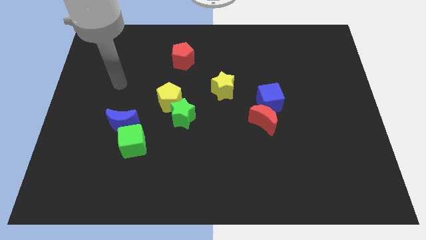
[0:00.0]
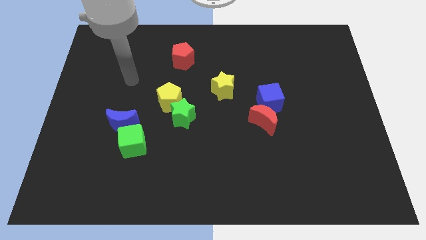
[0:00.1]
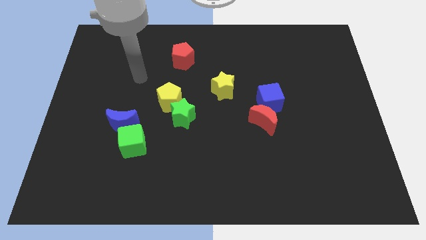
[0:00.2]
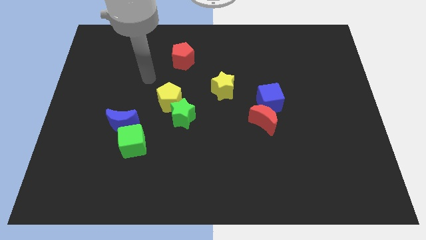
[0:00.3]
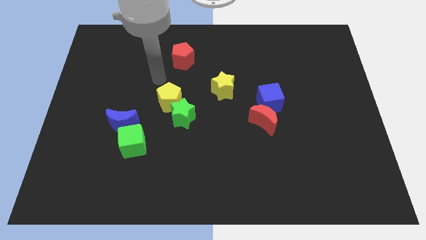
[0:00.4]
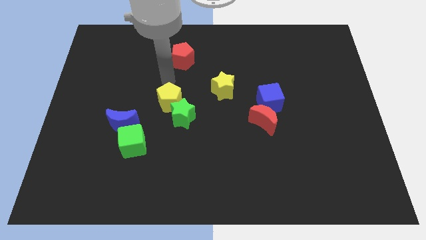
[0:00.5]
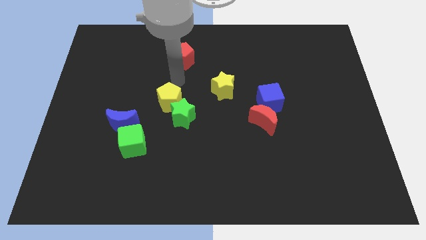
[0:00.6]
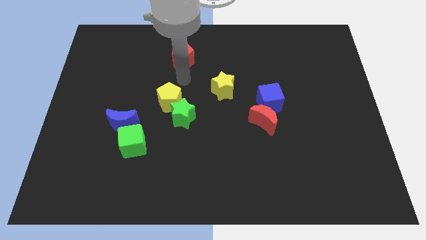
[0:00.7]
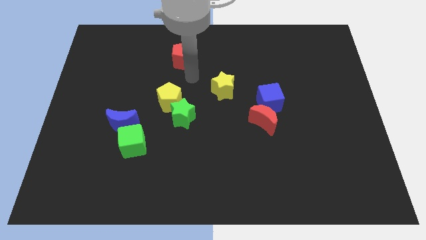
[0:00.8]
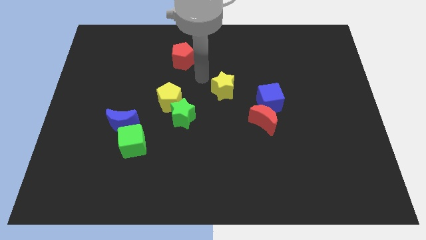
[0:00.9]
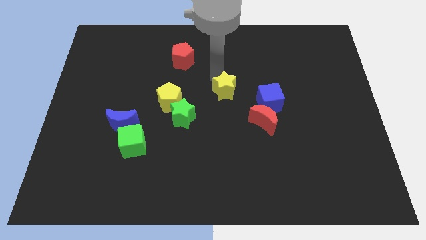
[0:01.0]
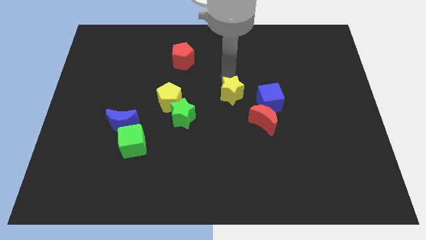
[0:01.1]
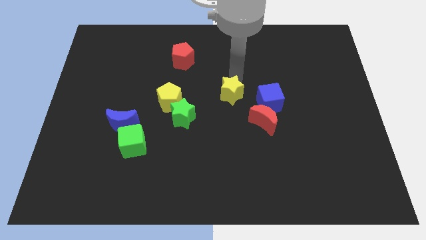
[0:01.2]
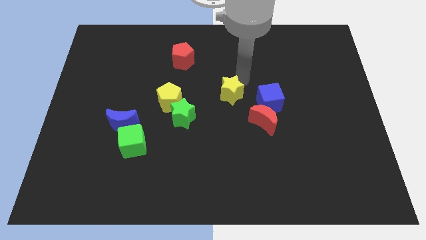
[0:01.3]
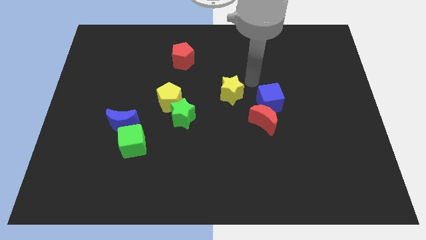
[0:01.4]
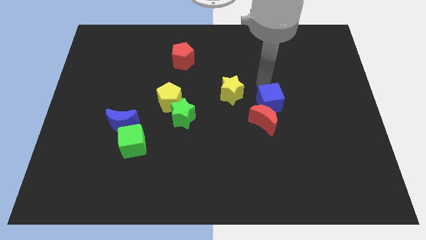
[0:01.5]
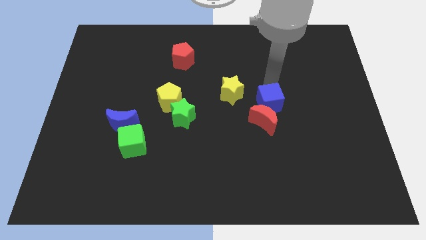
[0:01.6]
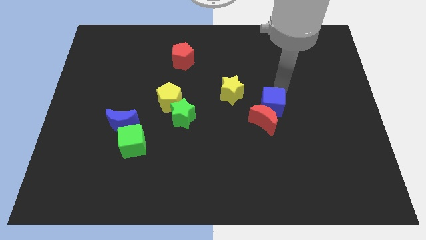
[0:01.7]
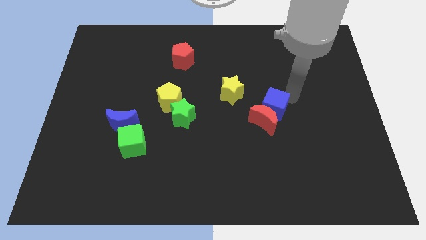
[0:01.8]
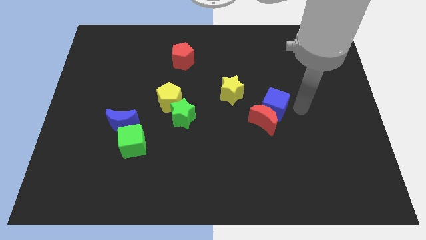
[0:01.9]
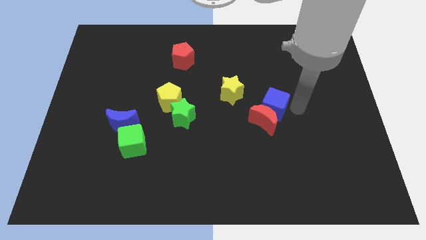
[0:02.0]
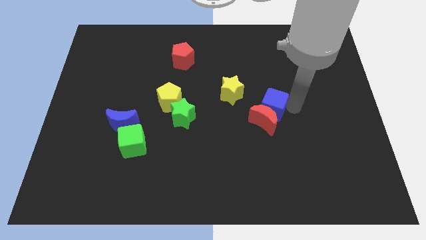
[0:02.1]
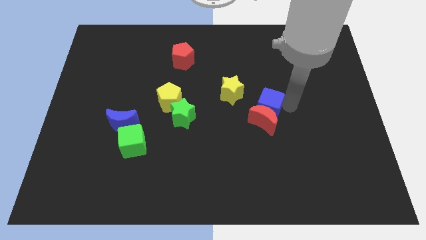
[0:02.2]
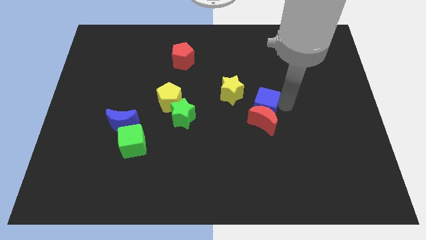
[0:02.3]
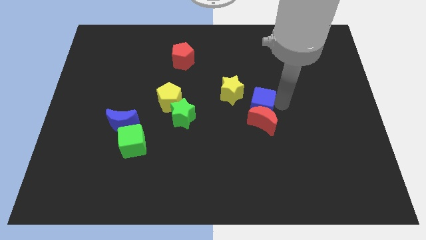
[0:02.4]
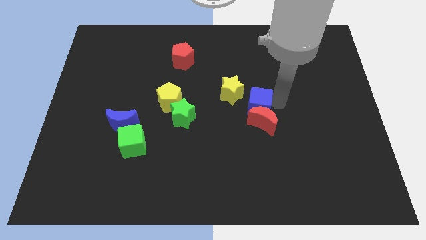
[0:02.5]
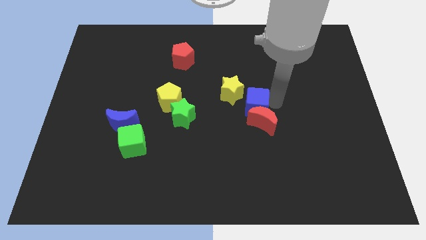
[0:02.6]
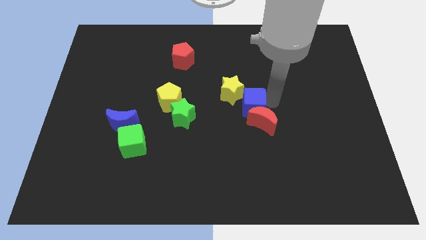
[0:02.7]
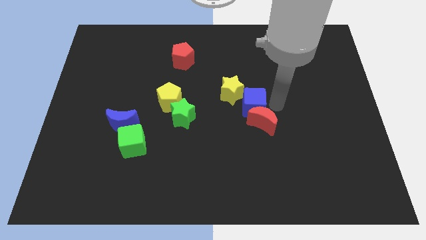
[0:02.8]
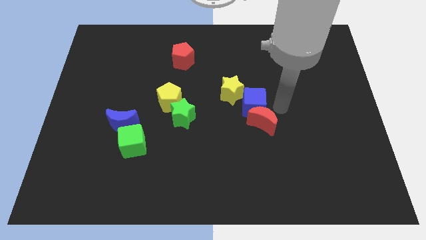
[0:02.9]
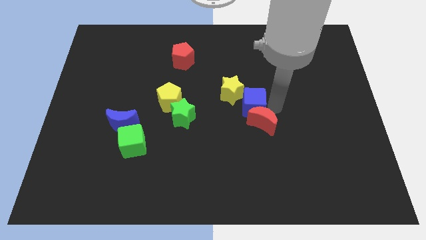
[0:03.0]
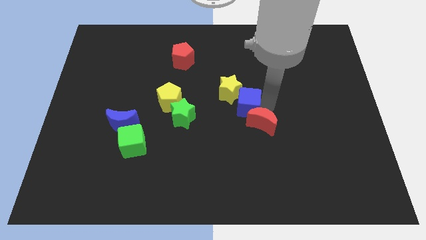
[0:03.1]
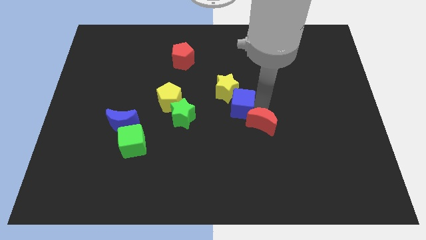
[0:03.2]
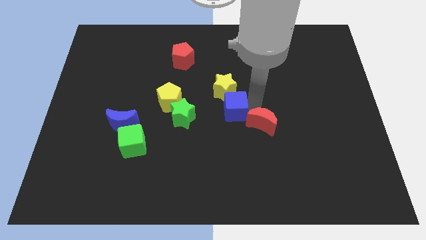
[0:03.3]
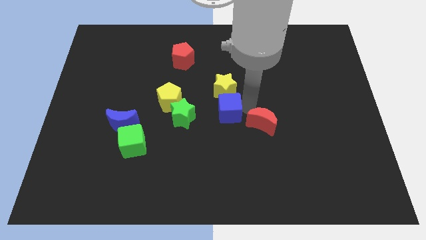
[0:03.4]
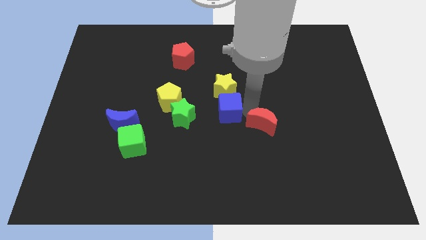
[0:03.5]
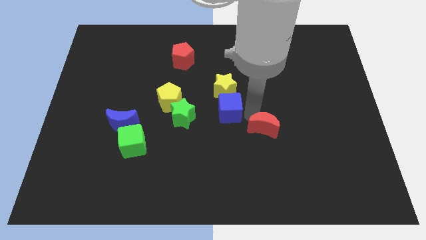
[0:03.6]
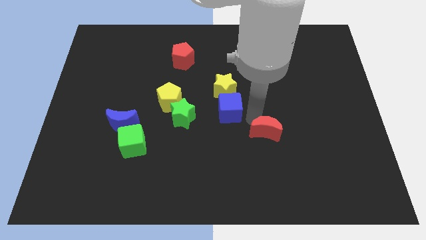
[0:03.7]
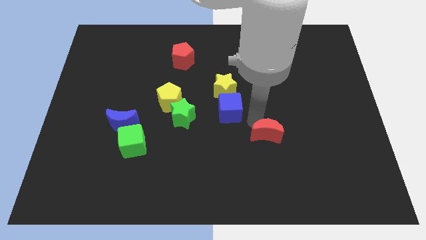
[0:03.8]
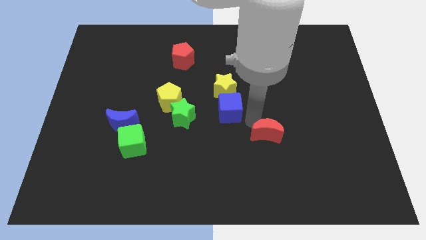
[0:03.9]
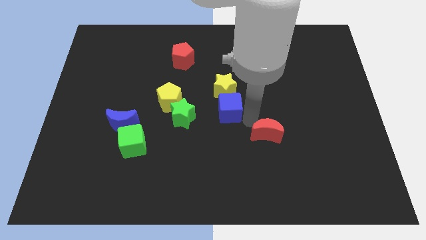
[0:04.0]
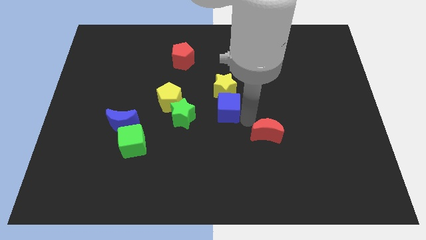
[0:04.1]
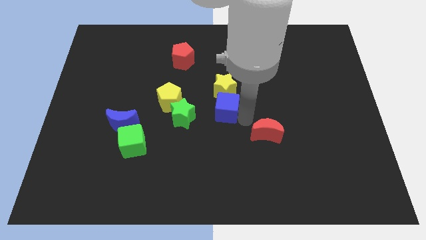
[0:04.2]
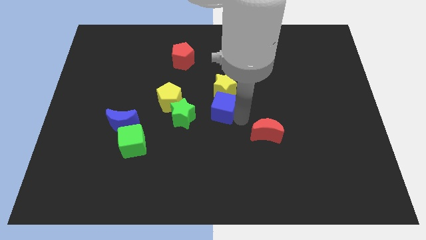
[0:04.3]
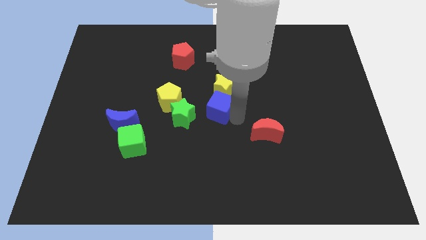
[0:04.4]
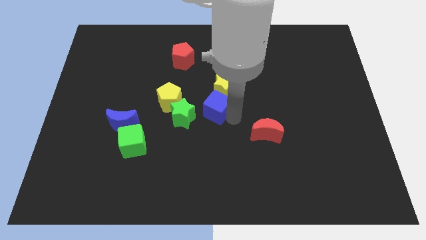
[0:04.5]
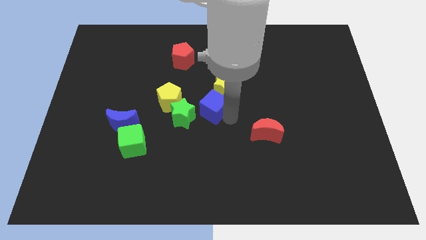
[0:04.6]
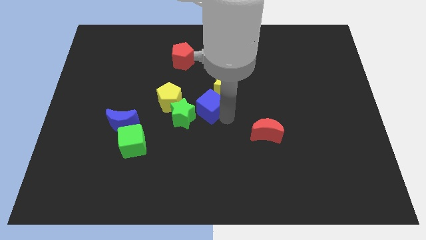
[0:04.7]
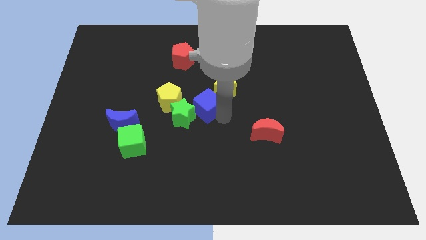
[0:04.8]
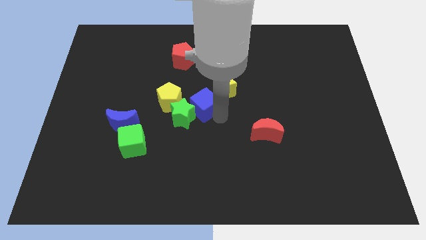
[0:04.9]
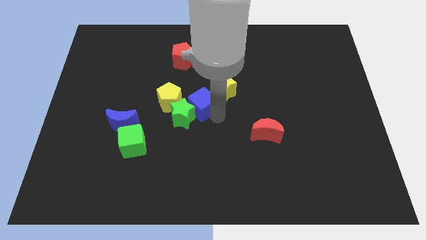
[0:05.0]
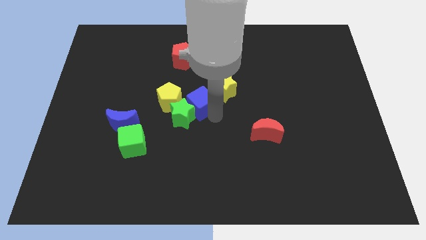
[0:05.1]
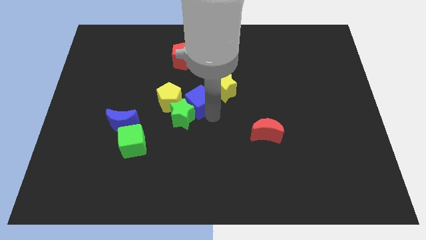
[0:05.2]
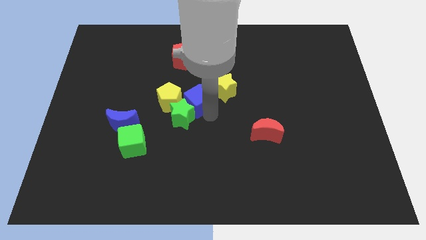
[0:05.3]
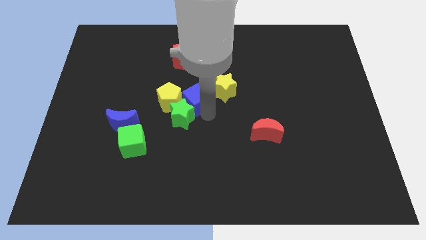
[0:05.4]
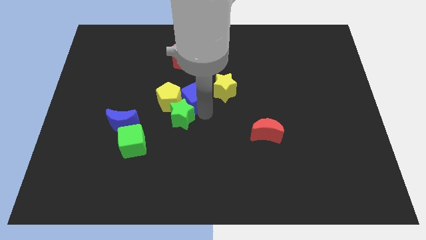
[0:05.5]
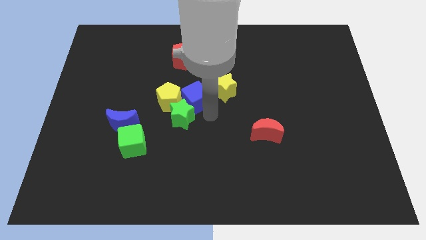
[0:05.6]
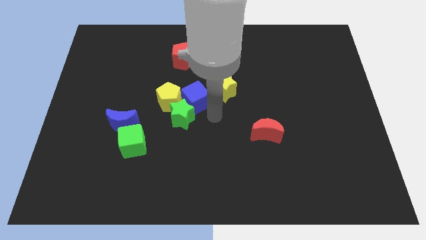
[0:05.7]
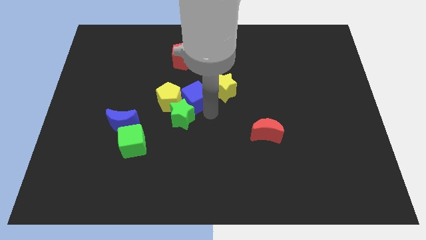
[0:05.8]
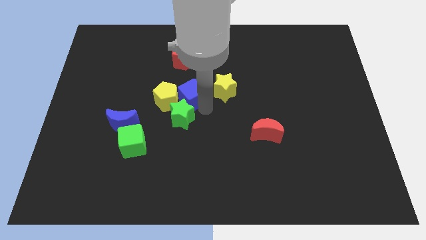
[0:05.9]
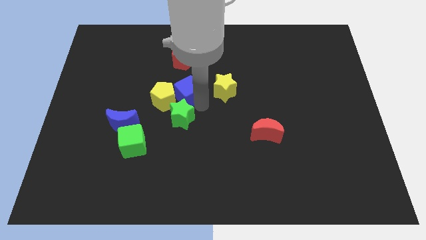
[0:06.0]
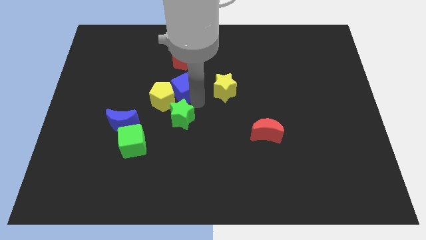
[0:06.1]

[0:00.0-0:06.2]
move the blue cube left

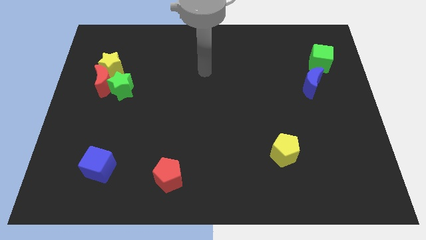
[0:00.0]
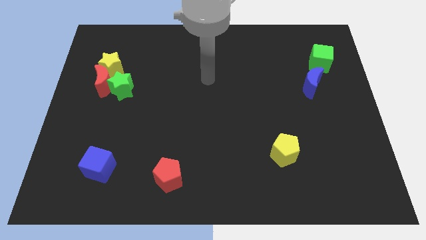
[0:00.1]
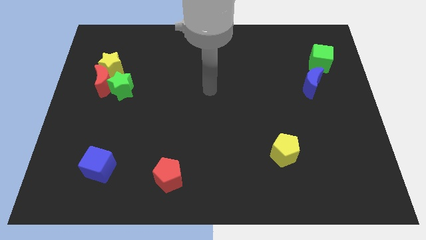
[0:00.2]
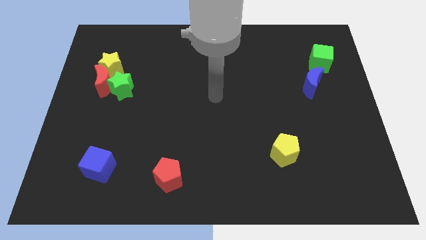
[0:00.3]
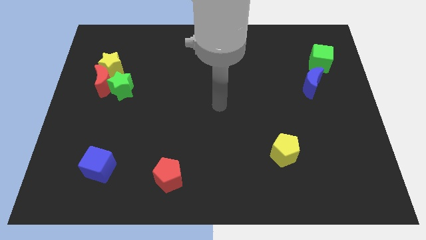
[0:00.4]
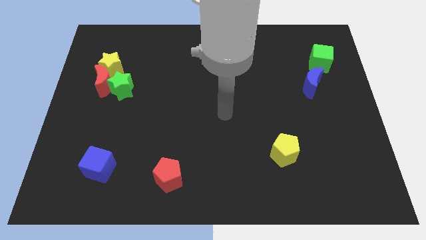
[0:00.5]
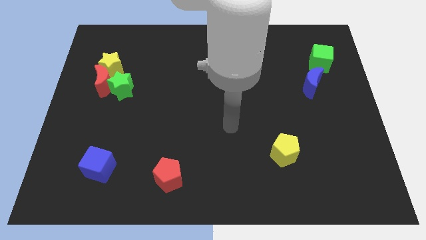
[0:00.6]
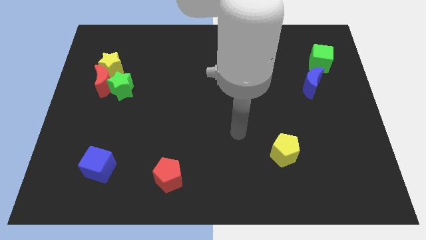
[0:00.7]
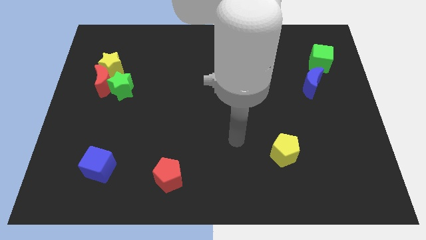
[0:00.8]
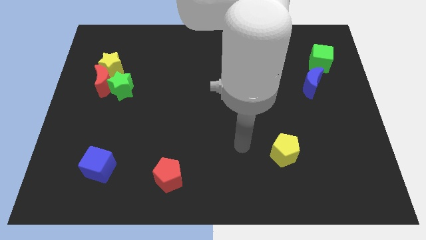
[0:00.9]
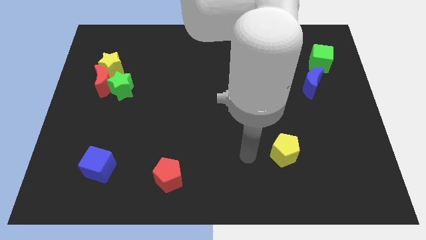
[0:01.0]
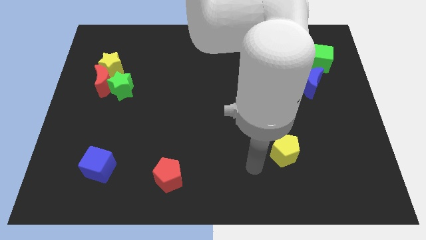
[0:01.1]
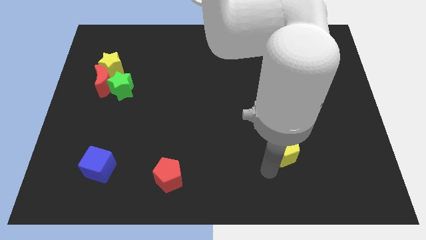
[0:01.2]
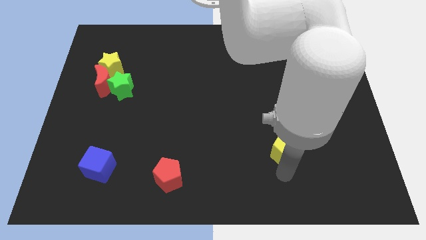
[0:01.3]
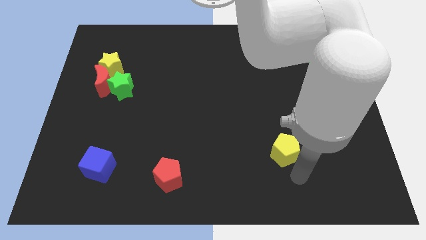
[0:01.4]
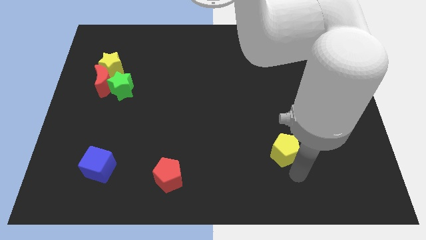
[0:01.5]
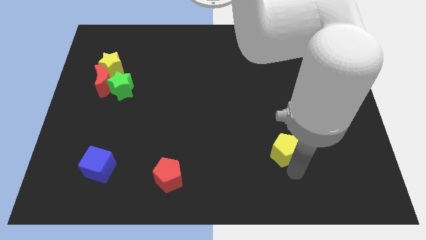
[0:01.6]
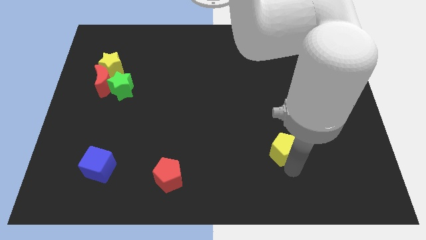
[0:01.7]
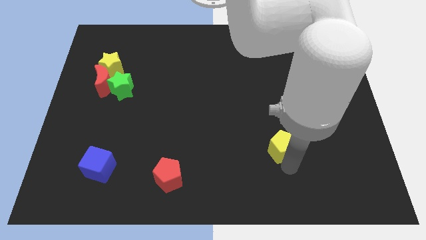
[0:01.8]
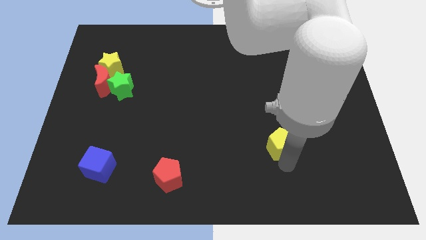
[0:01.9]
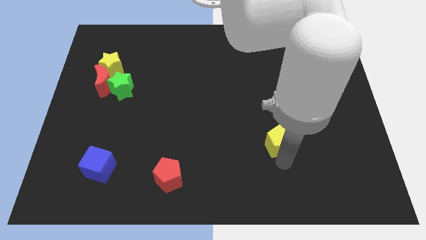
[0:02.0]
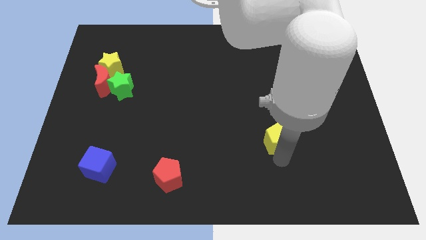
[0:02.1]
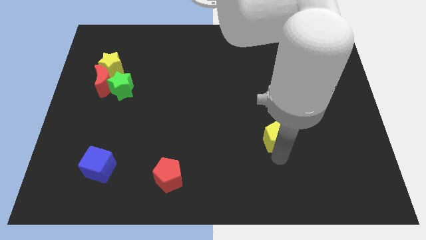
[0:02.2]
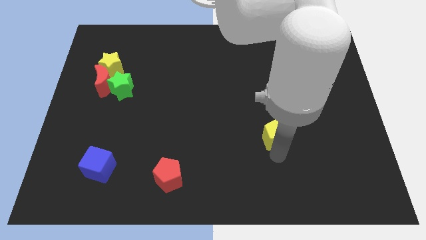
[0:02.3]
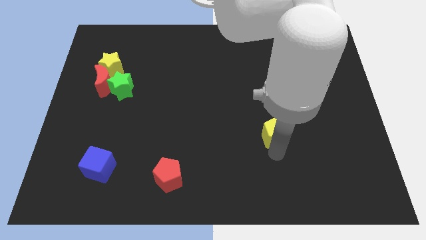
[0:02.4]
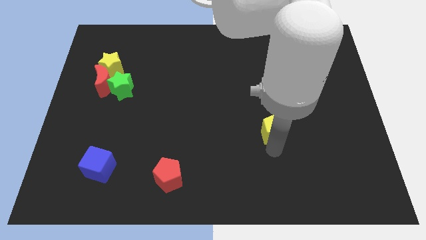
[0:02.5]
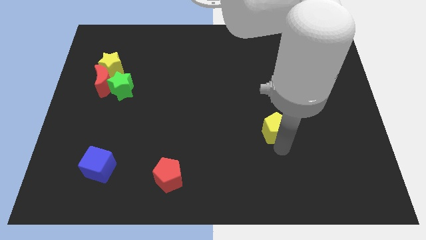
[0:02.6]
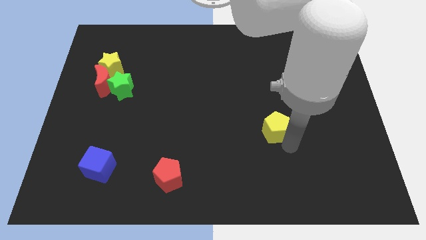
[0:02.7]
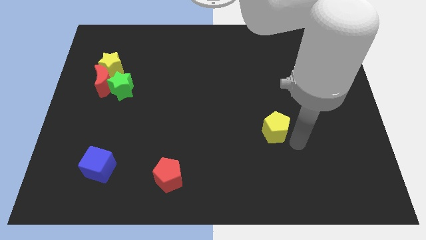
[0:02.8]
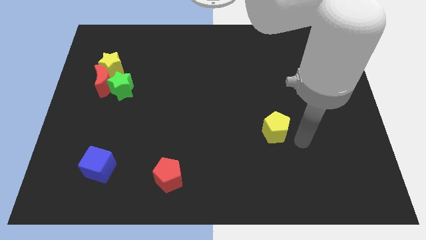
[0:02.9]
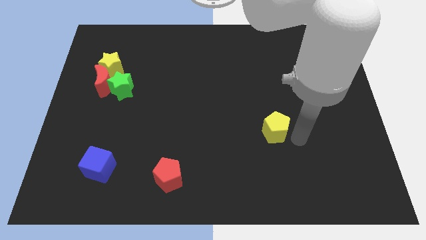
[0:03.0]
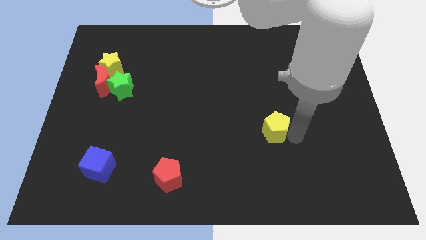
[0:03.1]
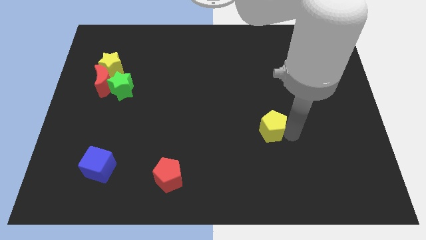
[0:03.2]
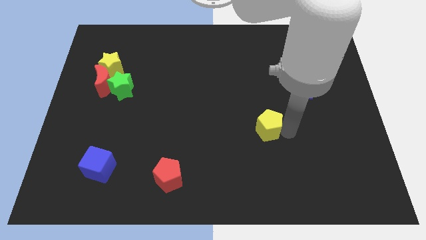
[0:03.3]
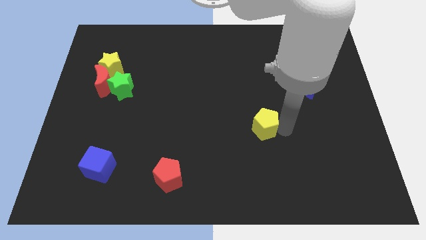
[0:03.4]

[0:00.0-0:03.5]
move the yellow pentagon upwards and to the left diagonally a little bit
